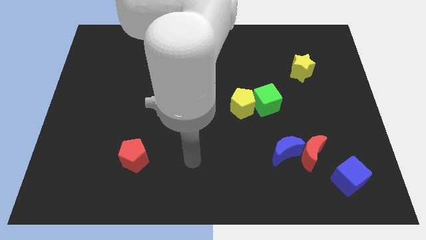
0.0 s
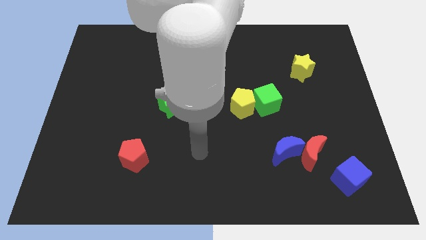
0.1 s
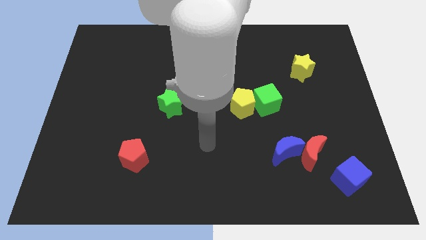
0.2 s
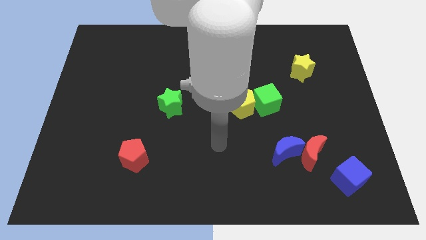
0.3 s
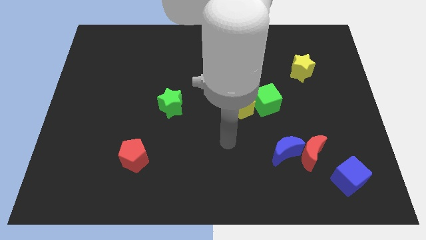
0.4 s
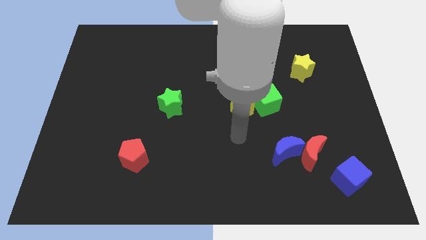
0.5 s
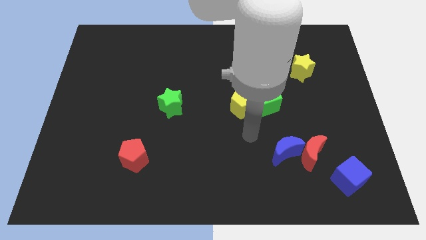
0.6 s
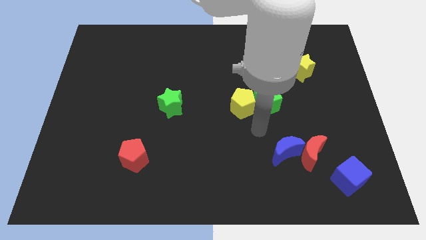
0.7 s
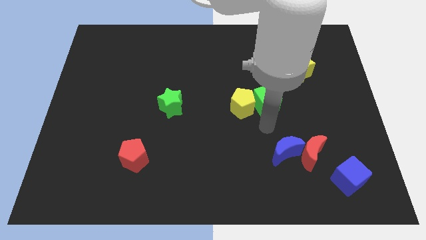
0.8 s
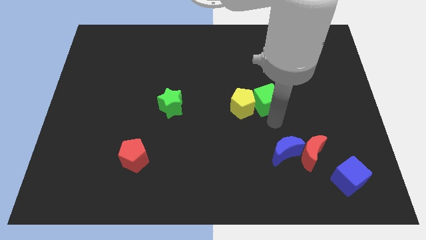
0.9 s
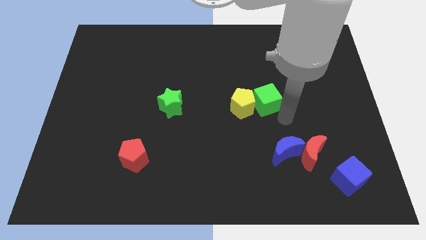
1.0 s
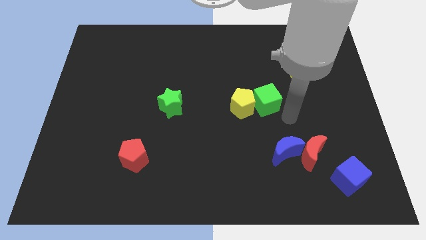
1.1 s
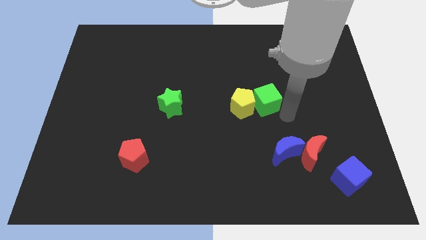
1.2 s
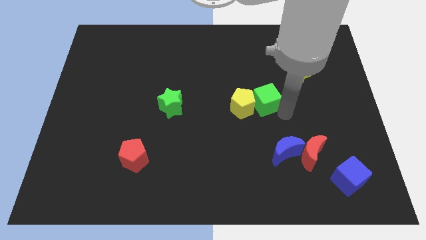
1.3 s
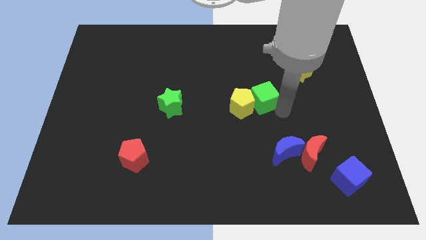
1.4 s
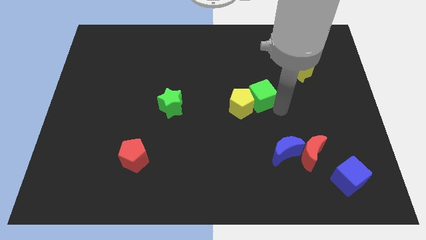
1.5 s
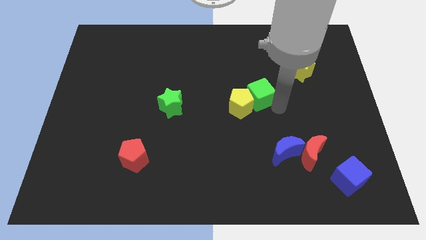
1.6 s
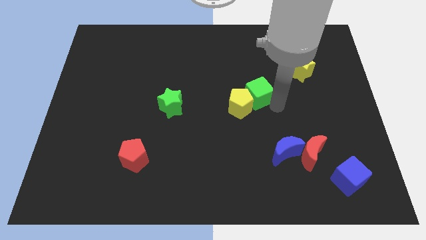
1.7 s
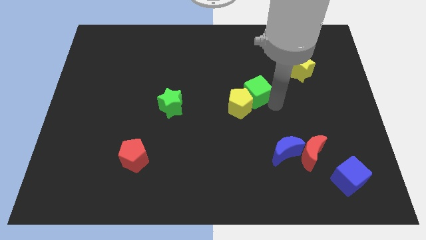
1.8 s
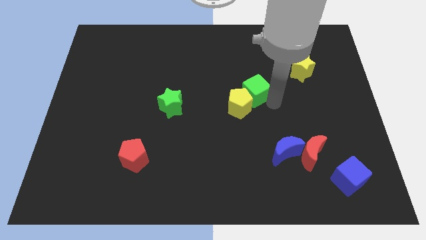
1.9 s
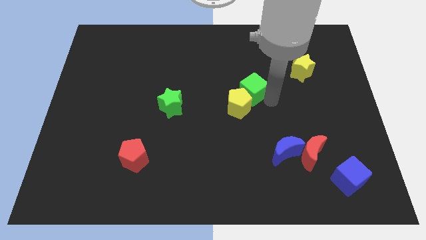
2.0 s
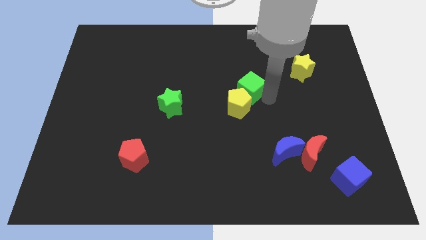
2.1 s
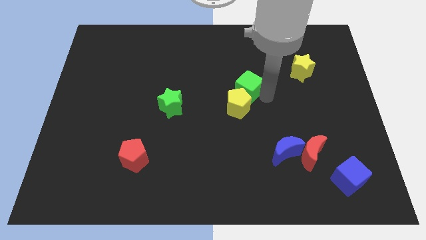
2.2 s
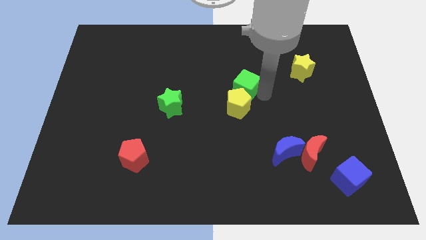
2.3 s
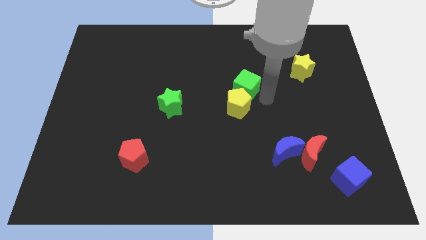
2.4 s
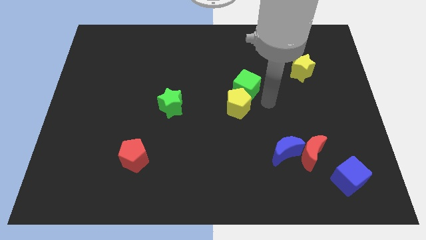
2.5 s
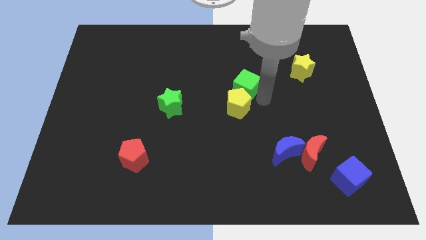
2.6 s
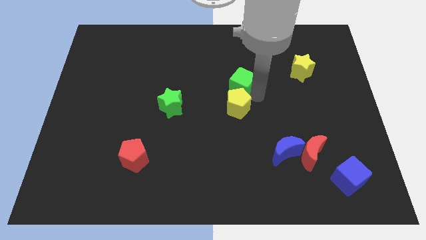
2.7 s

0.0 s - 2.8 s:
push the green cube slightly diagonally up and to the left

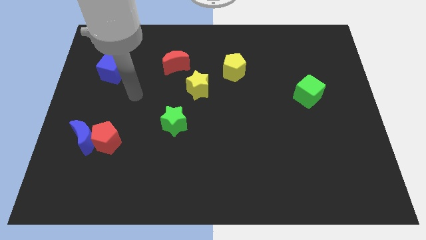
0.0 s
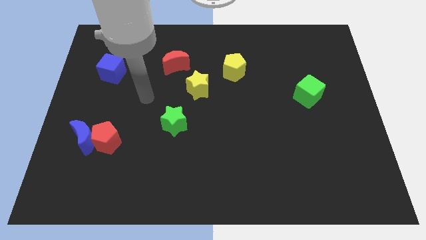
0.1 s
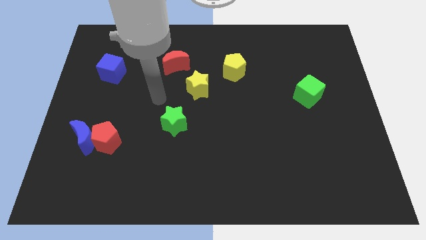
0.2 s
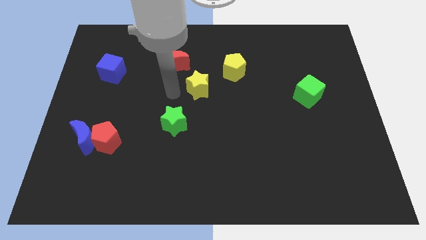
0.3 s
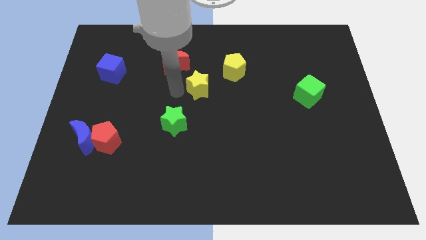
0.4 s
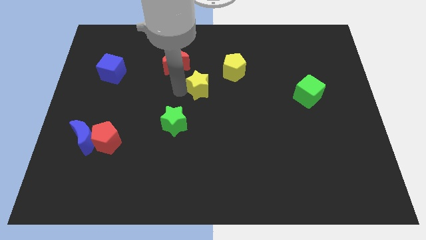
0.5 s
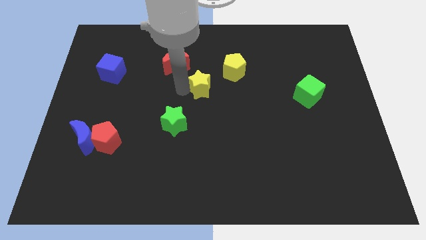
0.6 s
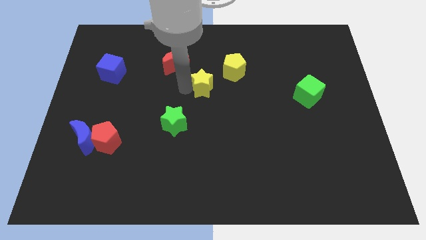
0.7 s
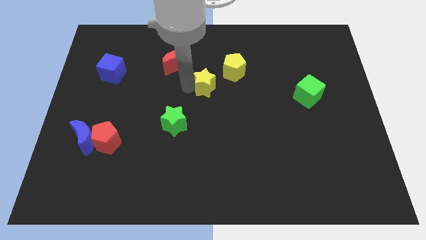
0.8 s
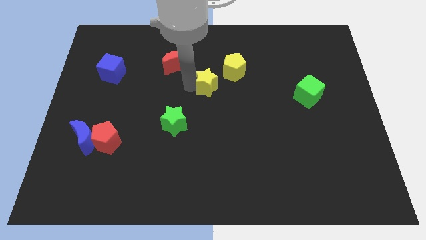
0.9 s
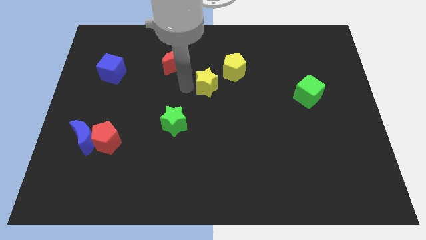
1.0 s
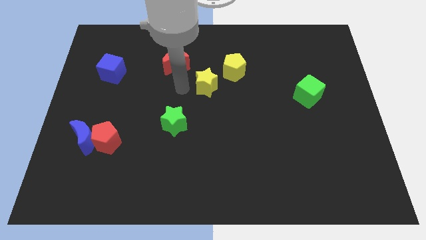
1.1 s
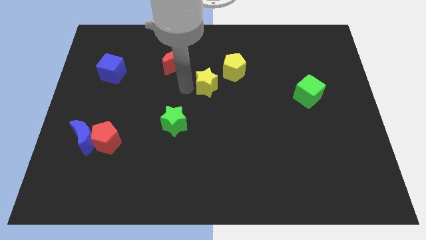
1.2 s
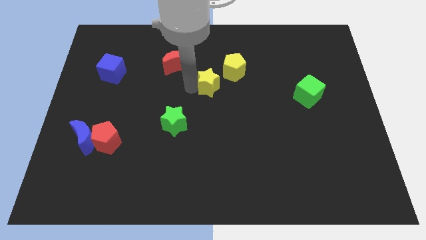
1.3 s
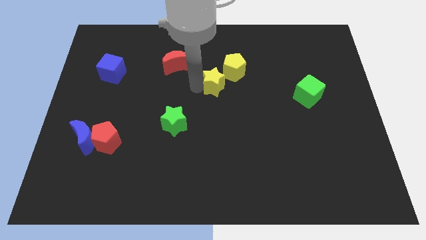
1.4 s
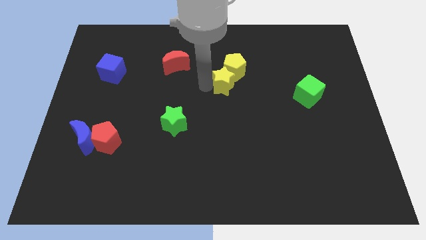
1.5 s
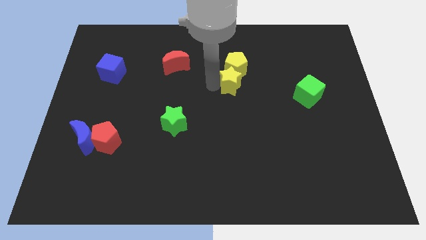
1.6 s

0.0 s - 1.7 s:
slide the yellow star a little to the right

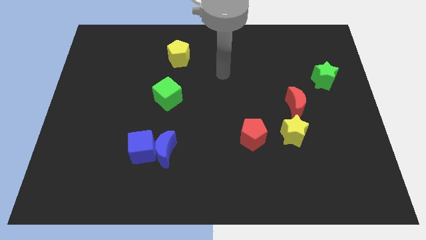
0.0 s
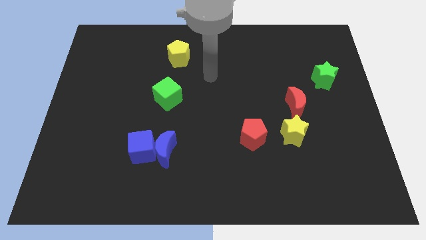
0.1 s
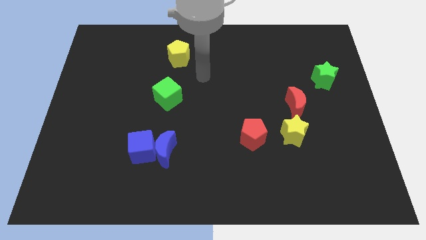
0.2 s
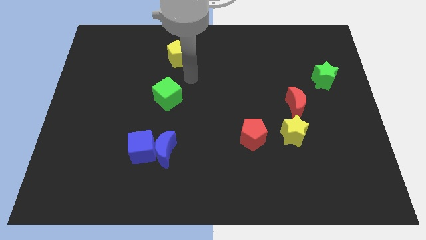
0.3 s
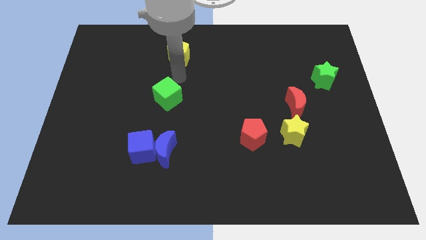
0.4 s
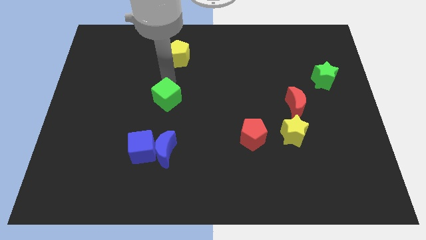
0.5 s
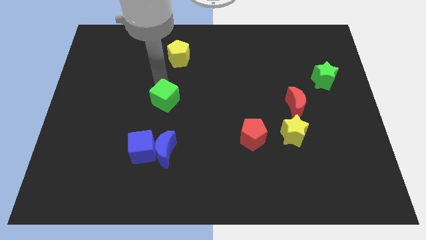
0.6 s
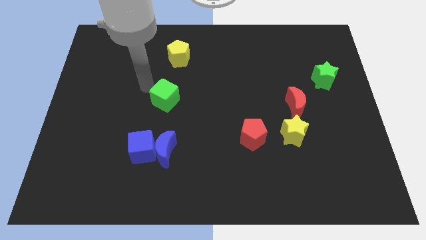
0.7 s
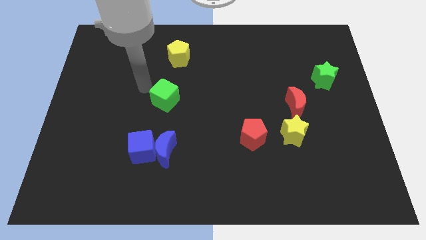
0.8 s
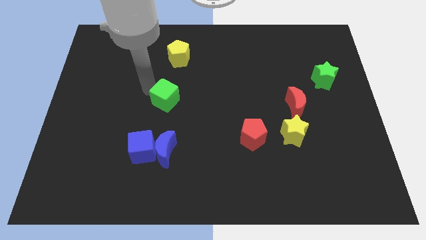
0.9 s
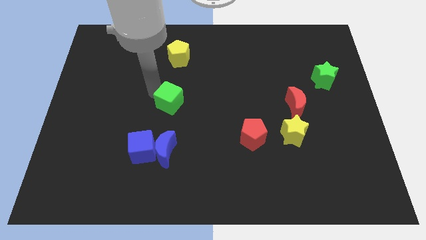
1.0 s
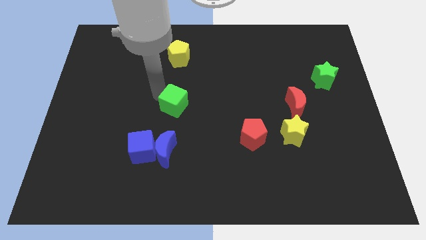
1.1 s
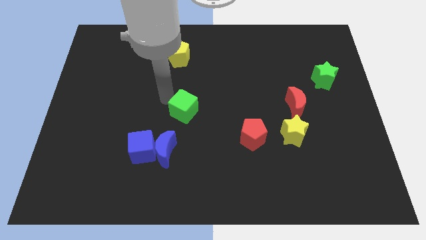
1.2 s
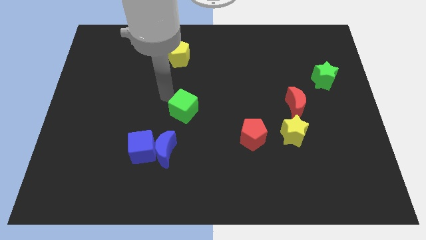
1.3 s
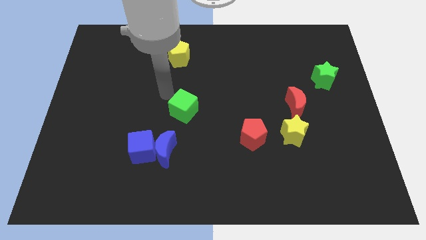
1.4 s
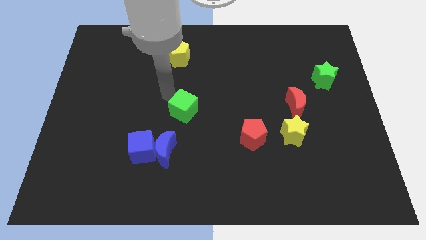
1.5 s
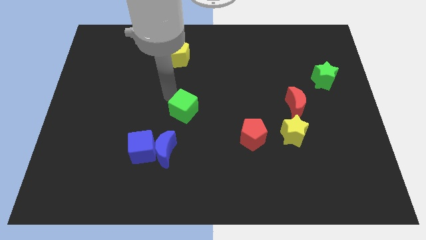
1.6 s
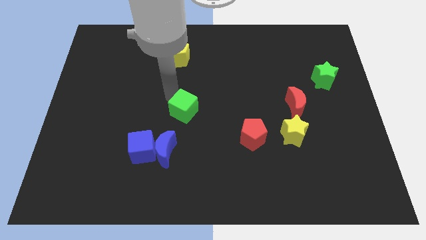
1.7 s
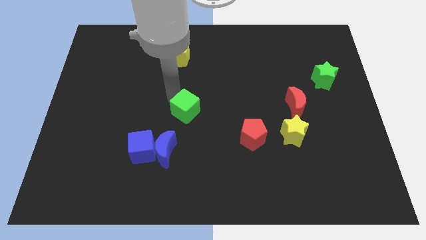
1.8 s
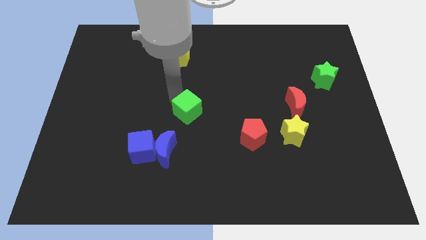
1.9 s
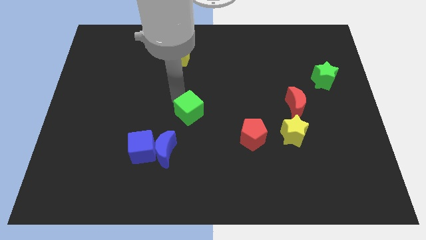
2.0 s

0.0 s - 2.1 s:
move the green cube downwards and then to the right a bit

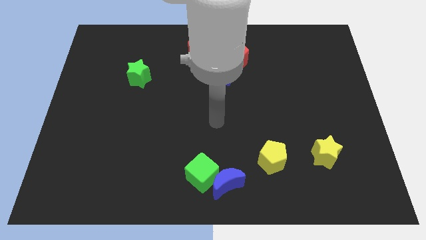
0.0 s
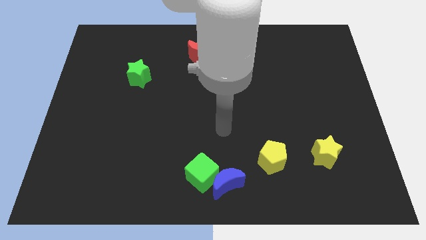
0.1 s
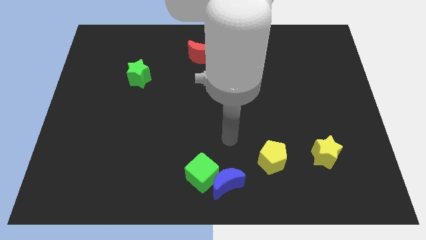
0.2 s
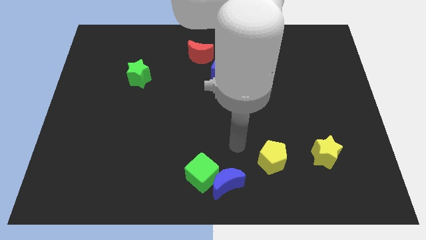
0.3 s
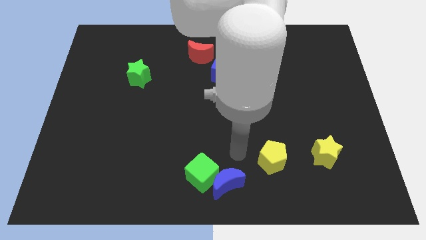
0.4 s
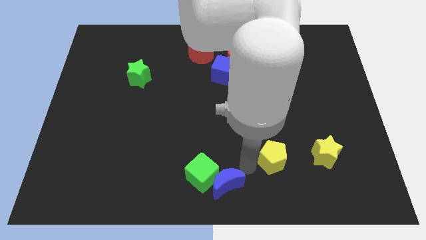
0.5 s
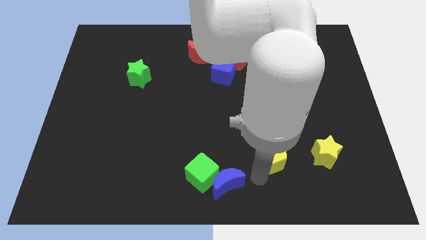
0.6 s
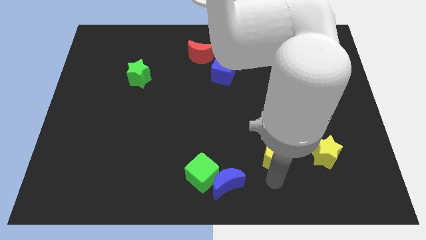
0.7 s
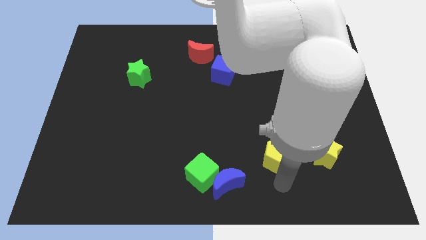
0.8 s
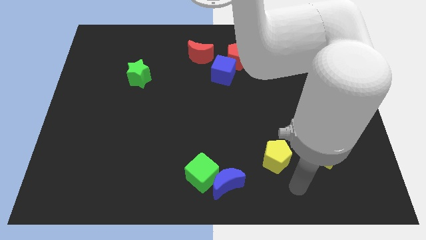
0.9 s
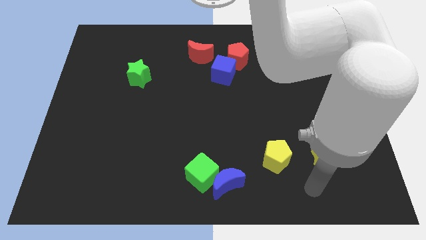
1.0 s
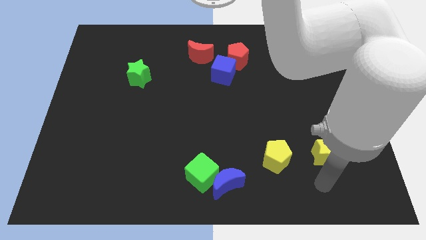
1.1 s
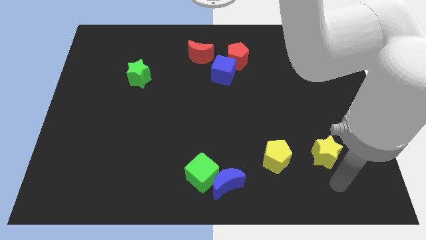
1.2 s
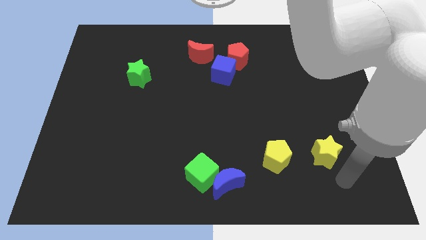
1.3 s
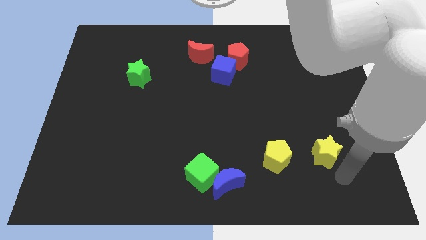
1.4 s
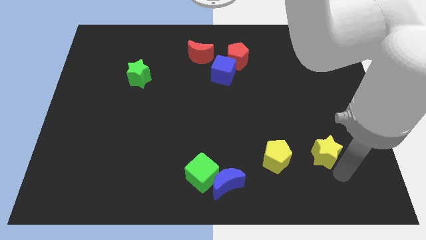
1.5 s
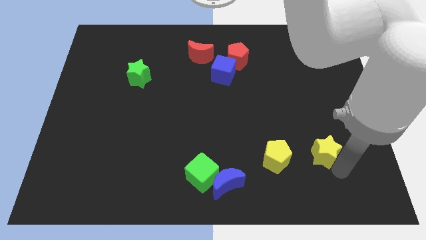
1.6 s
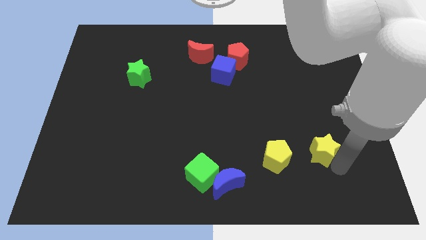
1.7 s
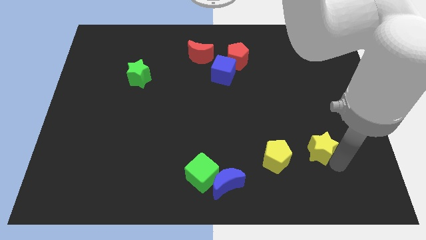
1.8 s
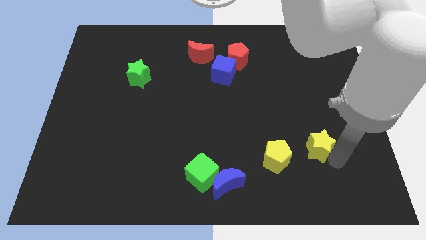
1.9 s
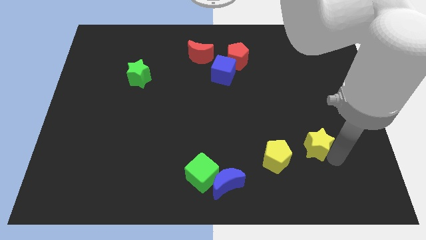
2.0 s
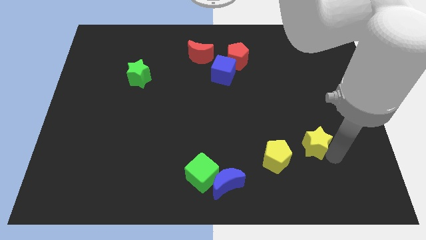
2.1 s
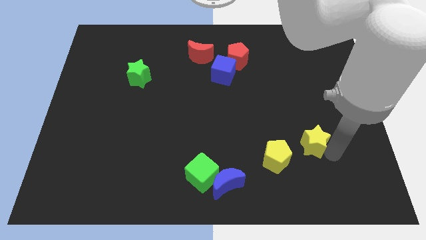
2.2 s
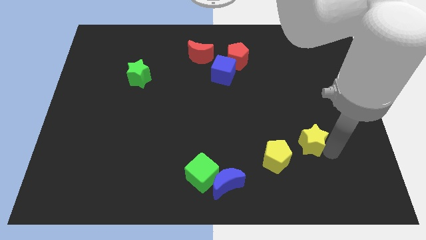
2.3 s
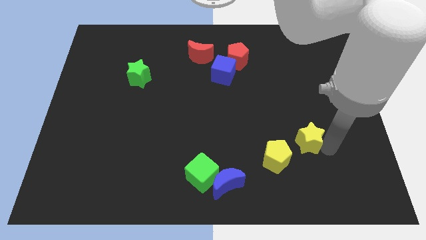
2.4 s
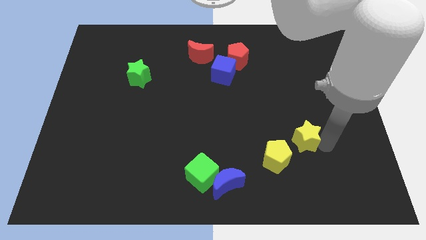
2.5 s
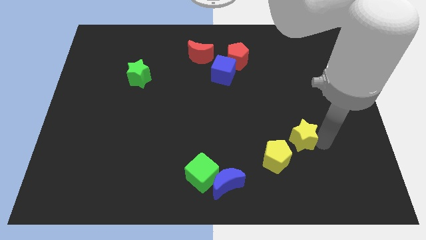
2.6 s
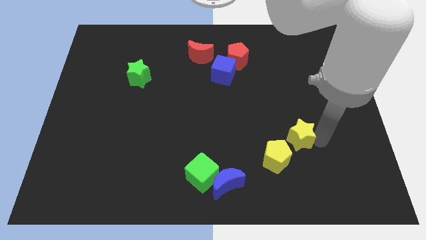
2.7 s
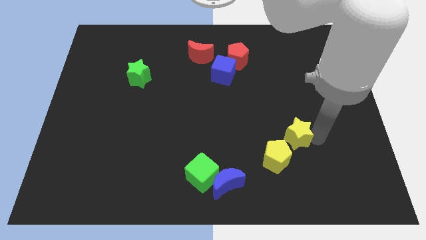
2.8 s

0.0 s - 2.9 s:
move the yellow star diagonally upwards and left slightly
